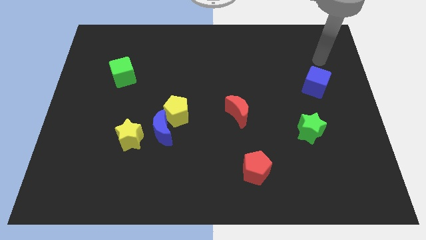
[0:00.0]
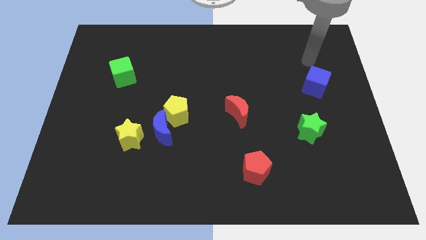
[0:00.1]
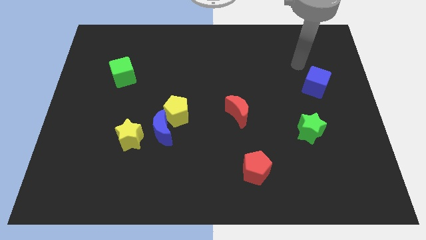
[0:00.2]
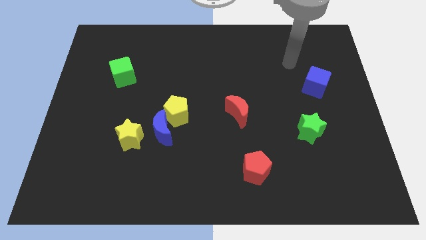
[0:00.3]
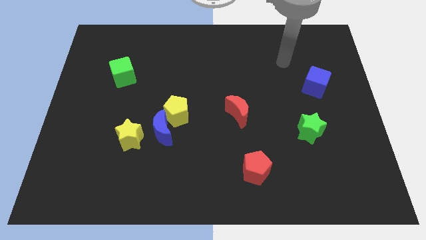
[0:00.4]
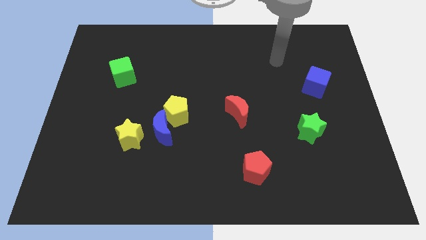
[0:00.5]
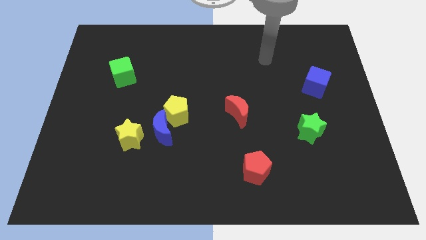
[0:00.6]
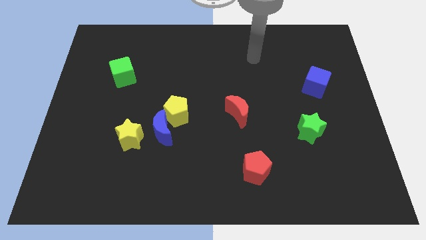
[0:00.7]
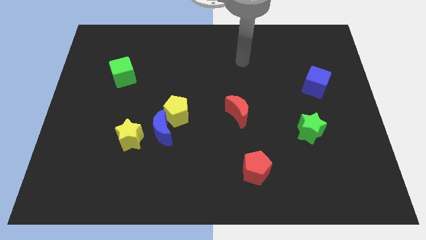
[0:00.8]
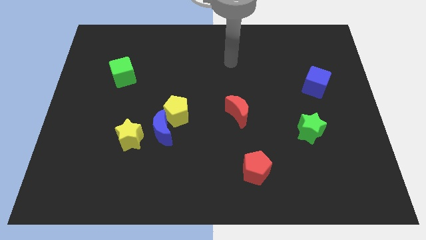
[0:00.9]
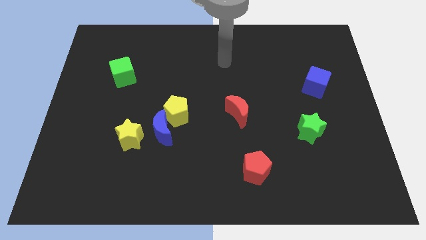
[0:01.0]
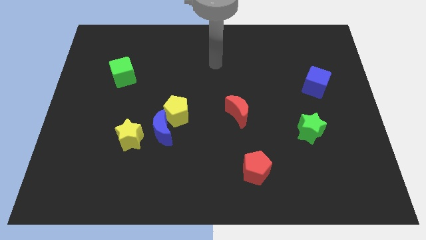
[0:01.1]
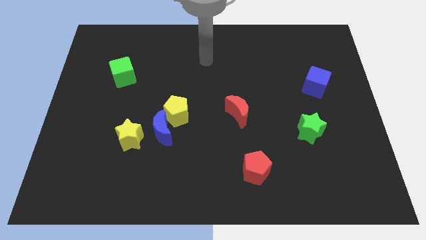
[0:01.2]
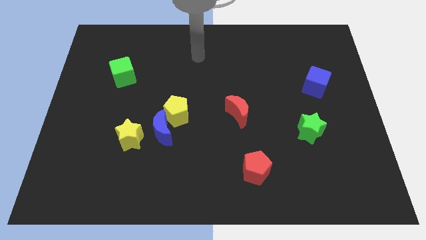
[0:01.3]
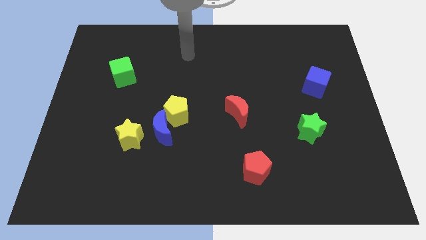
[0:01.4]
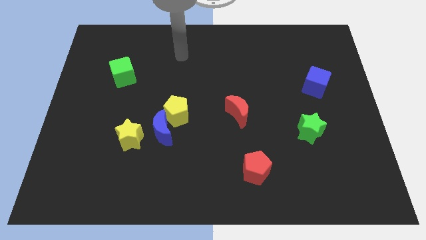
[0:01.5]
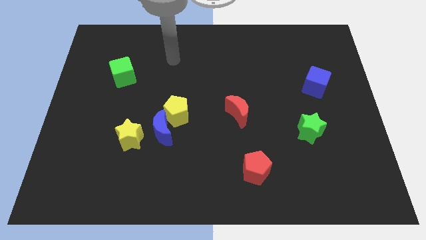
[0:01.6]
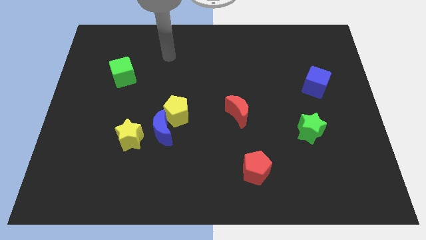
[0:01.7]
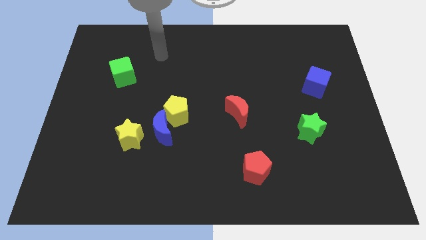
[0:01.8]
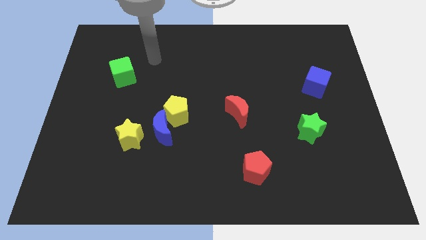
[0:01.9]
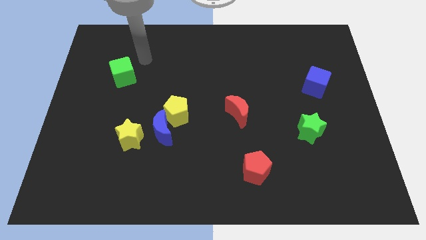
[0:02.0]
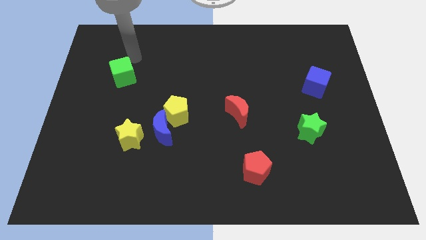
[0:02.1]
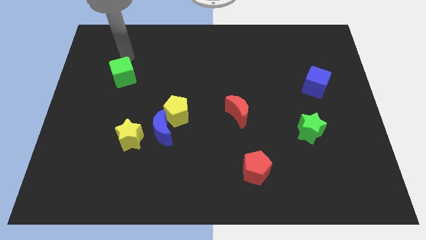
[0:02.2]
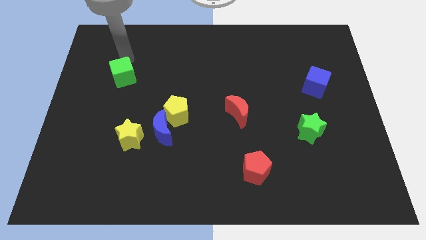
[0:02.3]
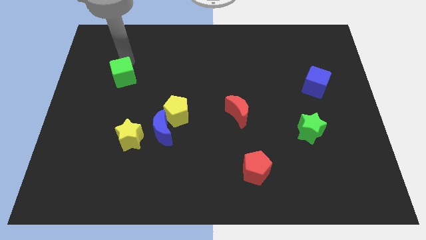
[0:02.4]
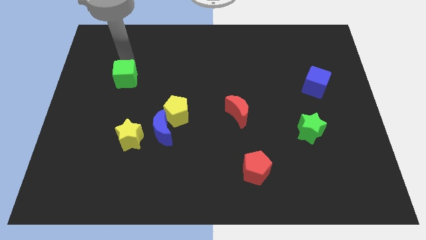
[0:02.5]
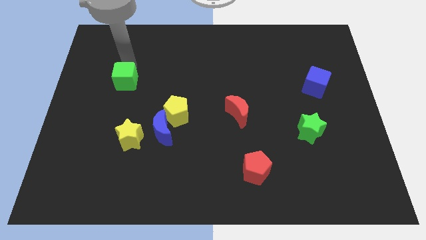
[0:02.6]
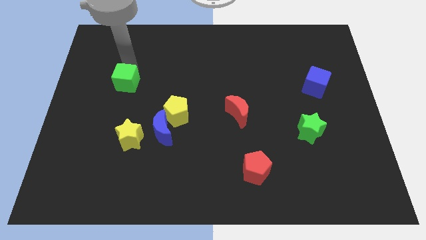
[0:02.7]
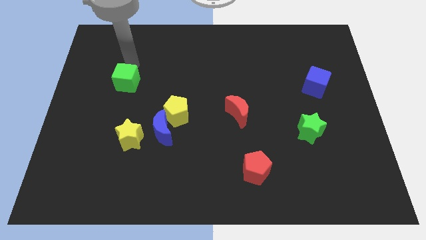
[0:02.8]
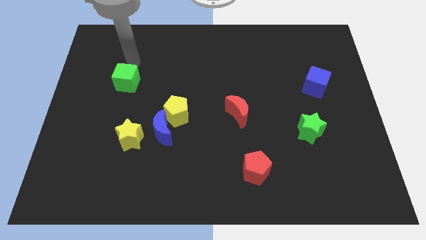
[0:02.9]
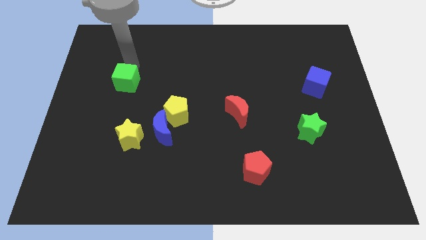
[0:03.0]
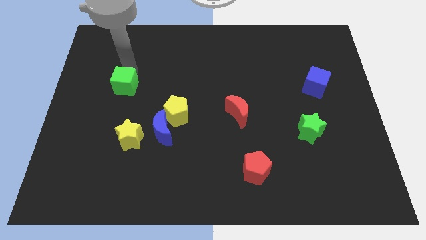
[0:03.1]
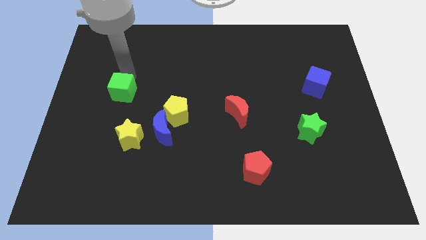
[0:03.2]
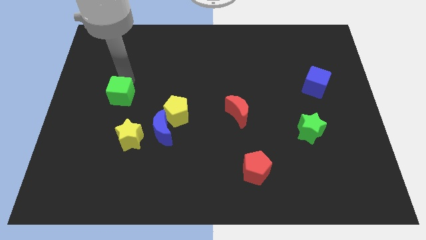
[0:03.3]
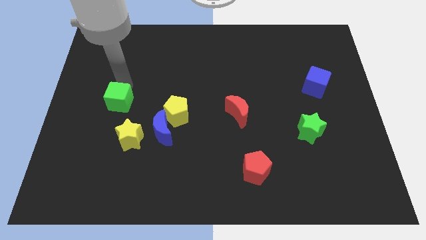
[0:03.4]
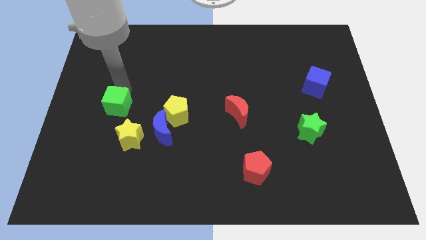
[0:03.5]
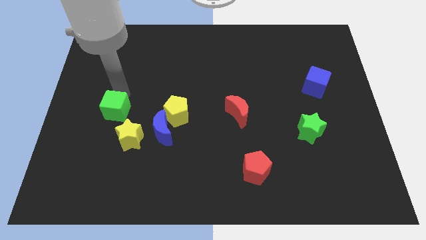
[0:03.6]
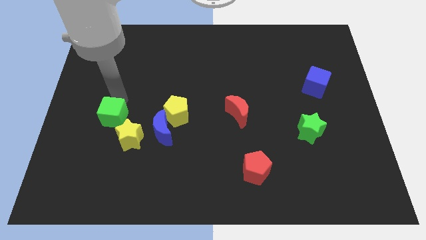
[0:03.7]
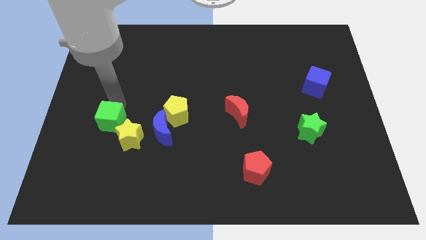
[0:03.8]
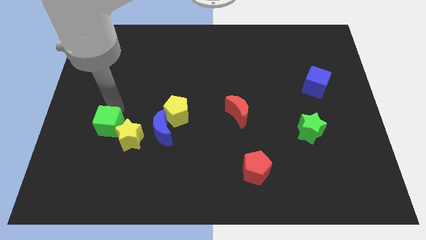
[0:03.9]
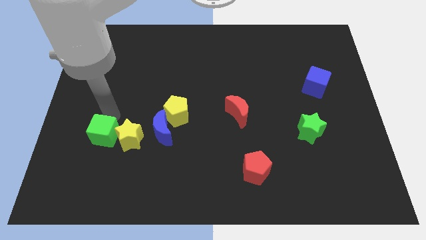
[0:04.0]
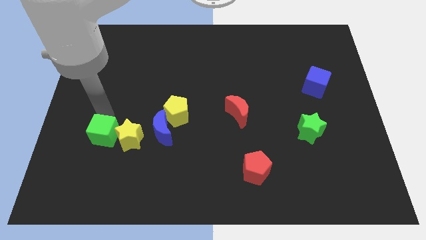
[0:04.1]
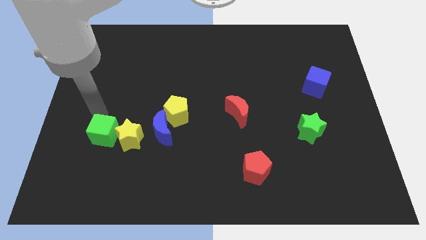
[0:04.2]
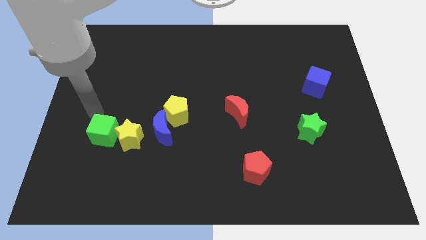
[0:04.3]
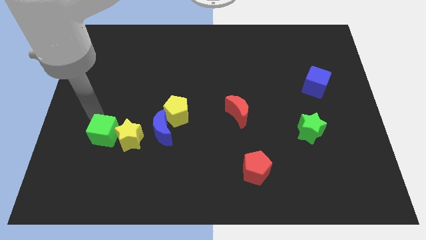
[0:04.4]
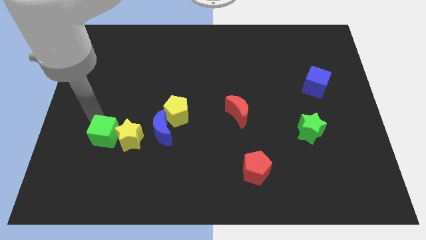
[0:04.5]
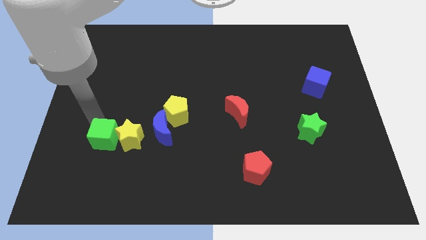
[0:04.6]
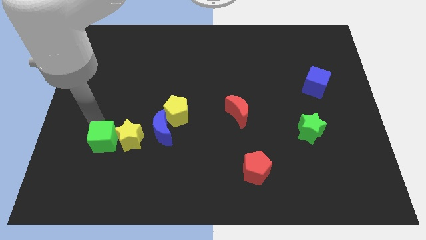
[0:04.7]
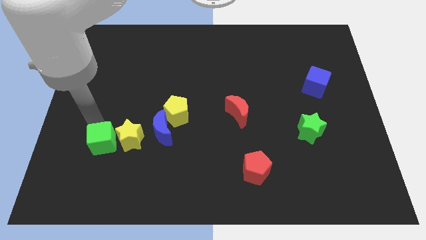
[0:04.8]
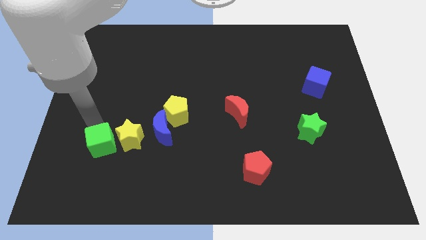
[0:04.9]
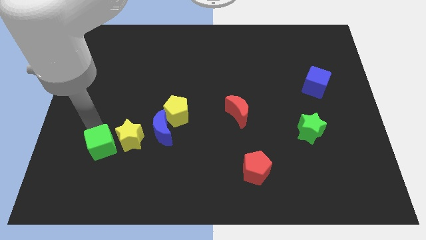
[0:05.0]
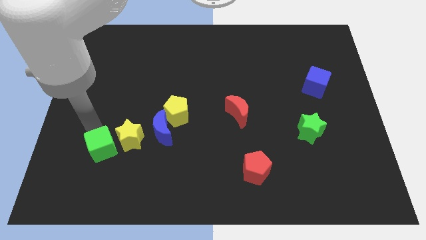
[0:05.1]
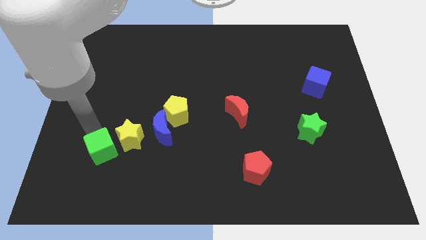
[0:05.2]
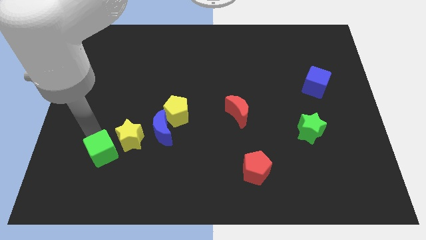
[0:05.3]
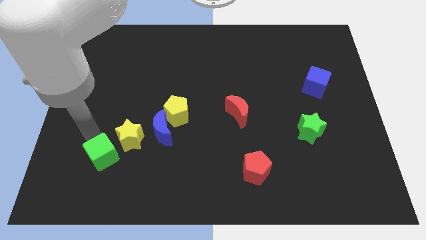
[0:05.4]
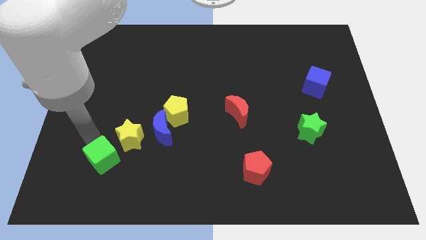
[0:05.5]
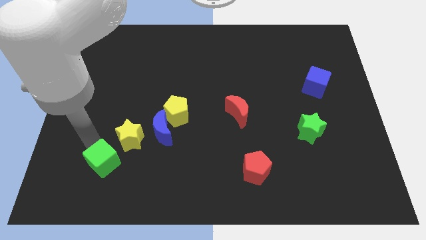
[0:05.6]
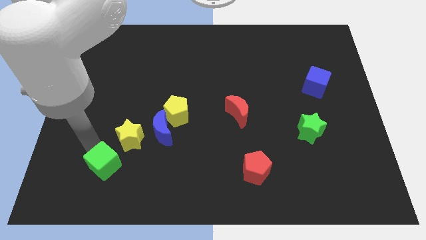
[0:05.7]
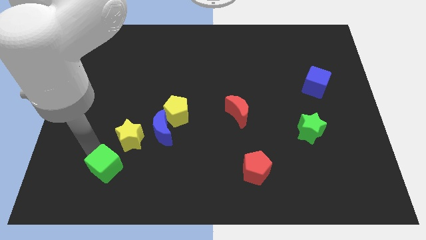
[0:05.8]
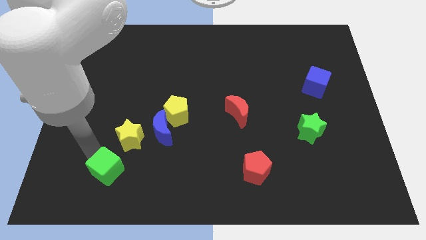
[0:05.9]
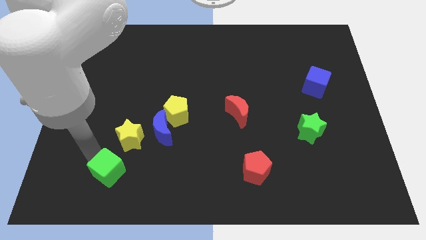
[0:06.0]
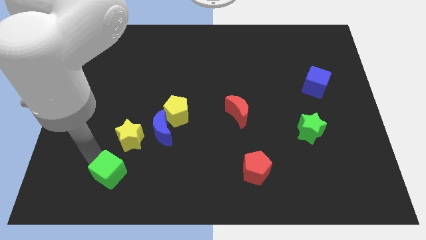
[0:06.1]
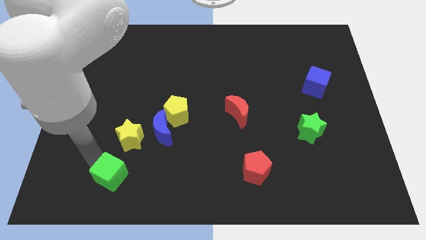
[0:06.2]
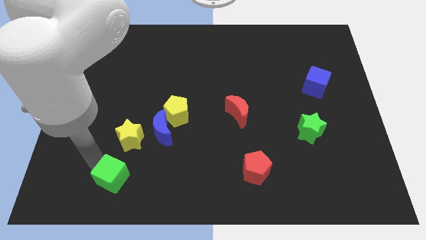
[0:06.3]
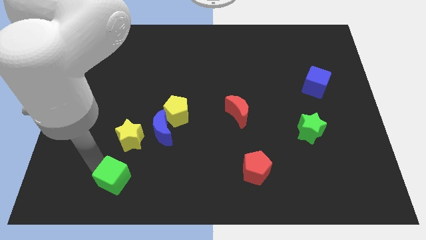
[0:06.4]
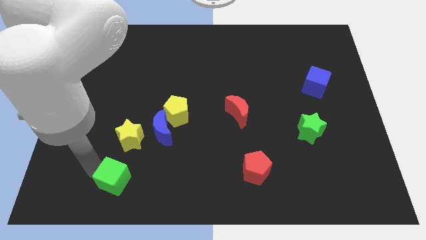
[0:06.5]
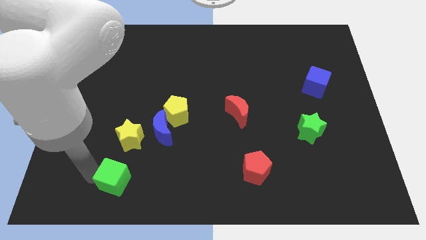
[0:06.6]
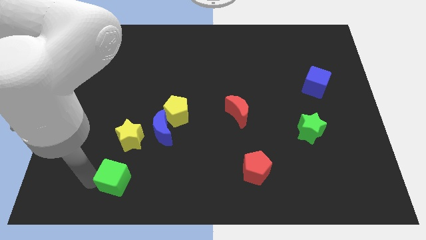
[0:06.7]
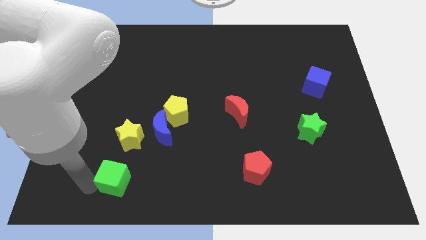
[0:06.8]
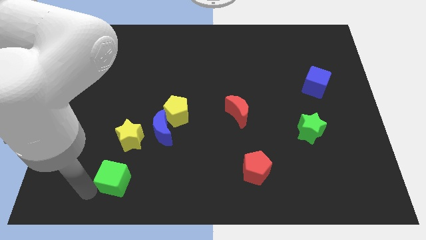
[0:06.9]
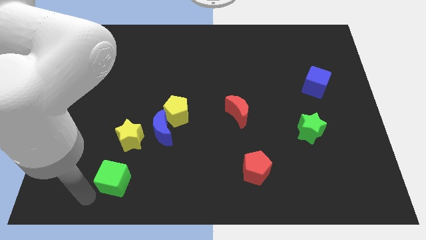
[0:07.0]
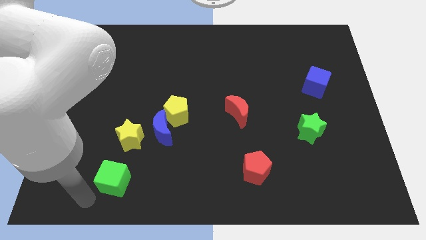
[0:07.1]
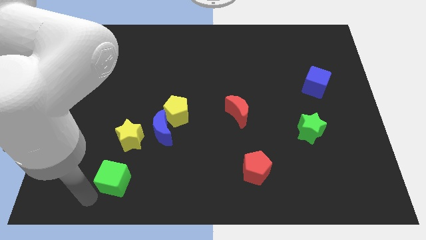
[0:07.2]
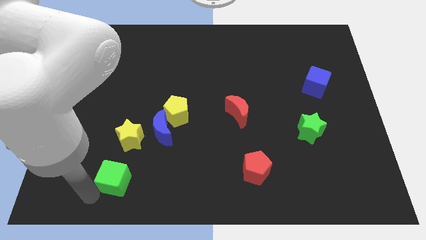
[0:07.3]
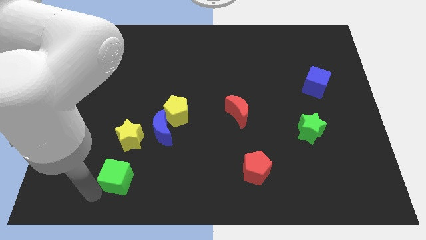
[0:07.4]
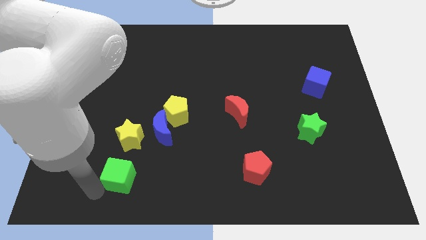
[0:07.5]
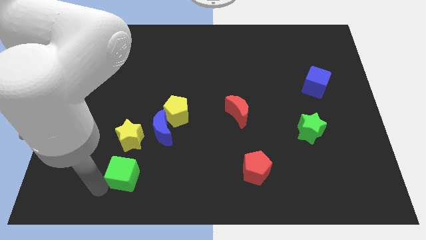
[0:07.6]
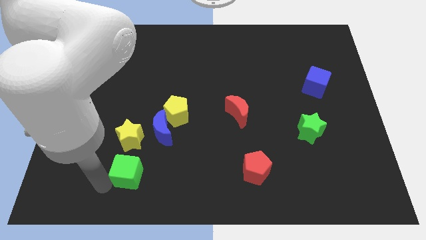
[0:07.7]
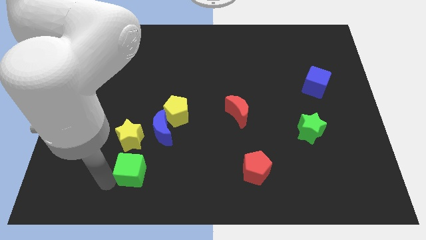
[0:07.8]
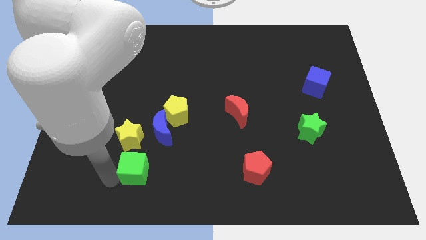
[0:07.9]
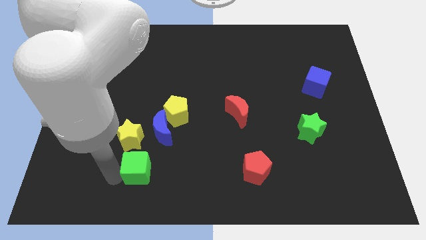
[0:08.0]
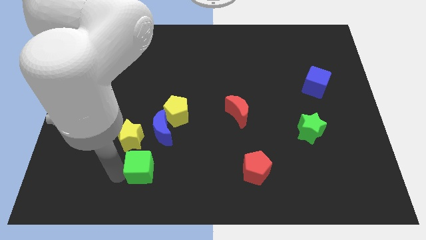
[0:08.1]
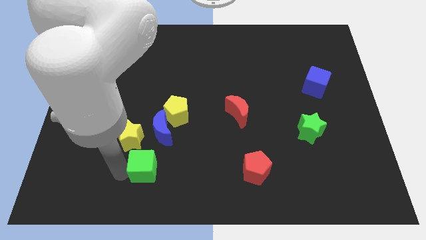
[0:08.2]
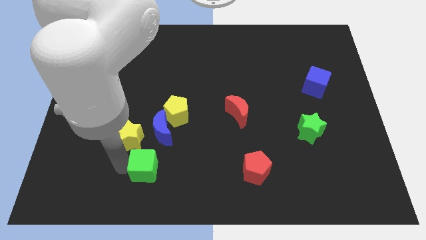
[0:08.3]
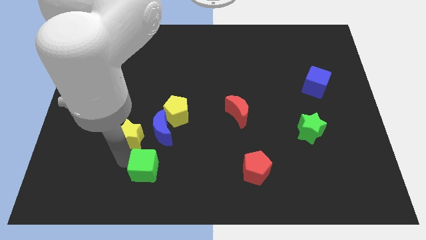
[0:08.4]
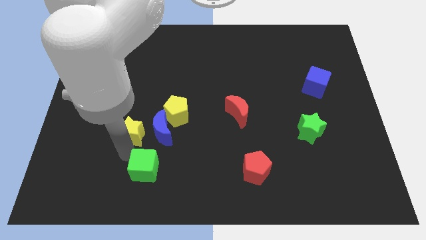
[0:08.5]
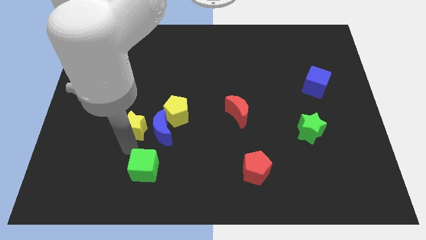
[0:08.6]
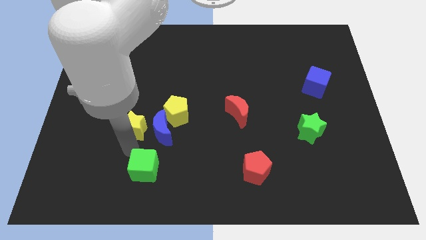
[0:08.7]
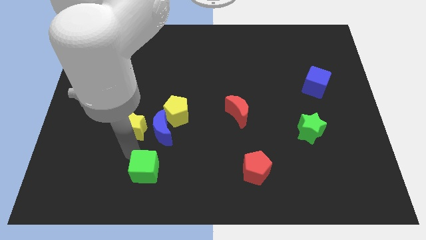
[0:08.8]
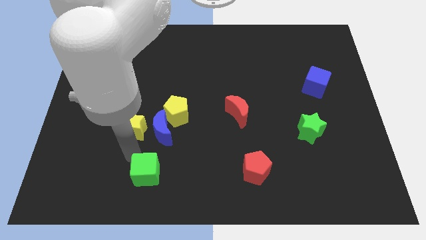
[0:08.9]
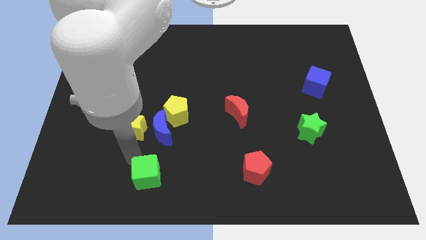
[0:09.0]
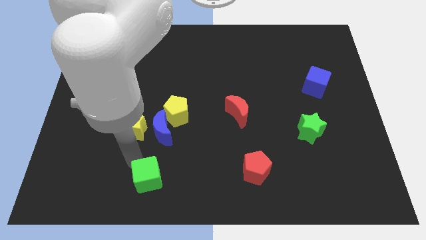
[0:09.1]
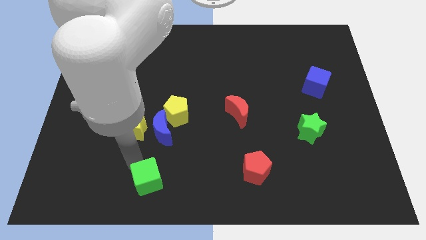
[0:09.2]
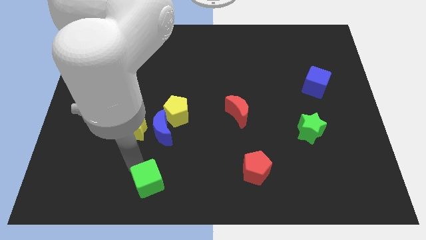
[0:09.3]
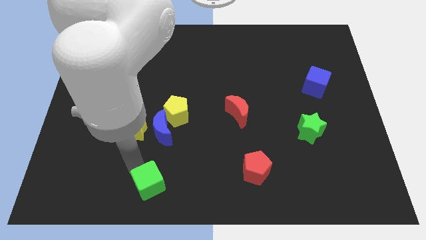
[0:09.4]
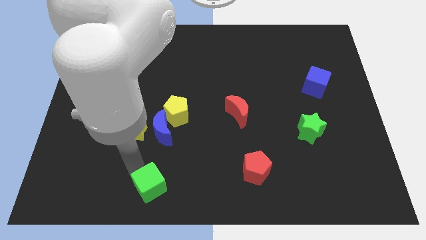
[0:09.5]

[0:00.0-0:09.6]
slide the green cube to the bottom
